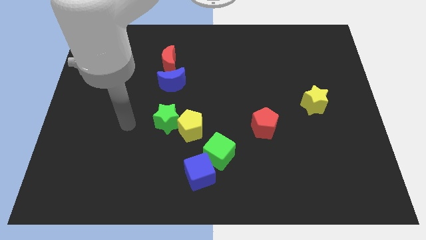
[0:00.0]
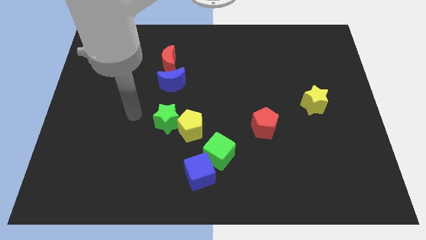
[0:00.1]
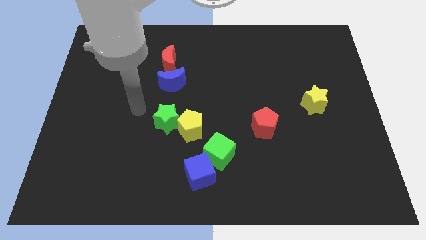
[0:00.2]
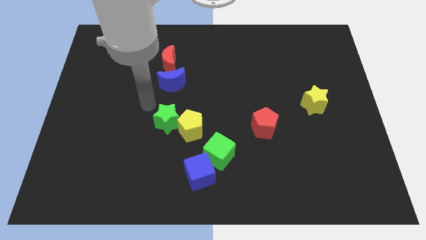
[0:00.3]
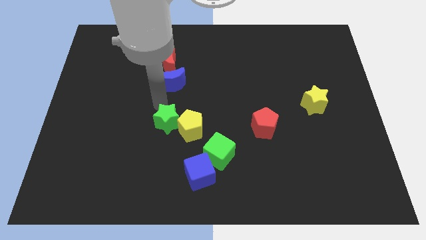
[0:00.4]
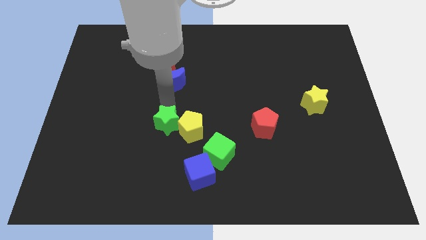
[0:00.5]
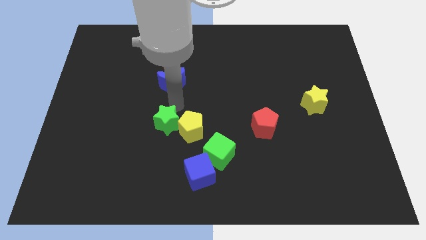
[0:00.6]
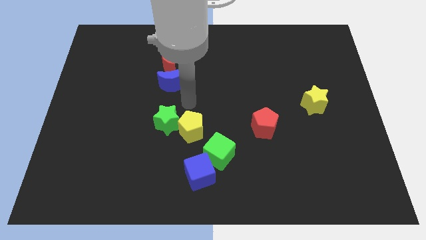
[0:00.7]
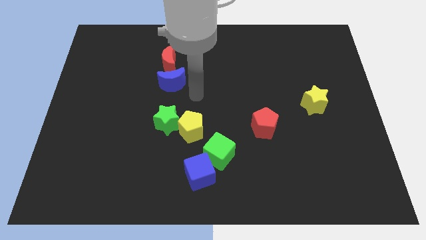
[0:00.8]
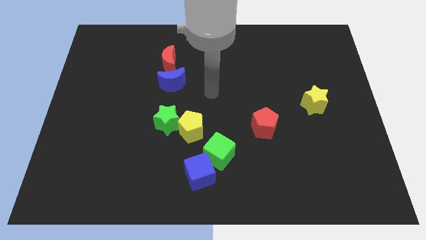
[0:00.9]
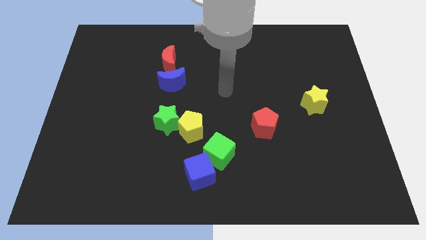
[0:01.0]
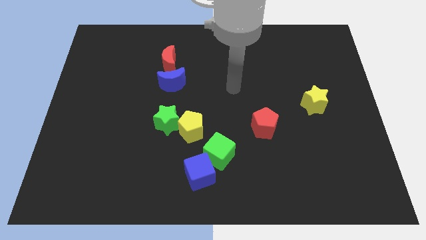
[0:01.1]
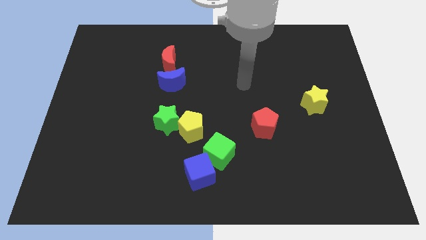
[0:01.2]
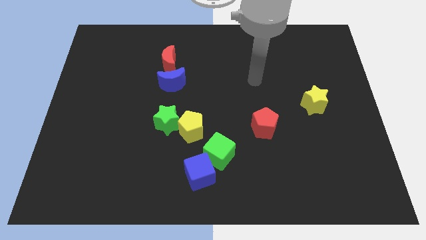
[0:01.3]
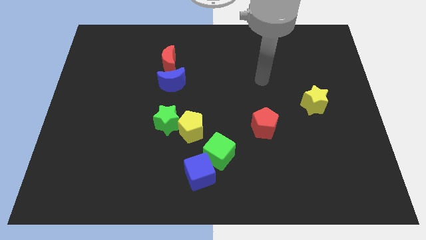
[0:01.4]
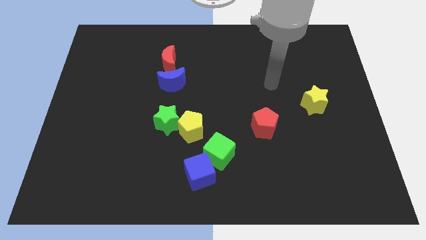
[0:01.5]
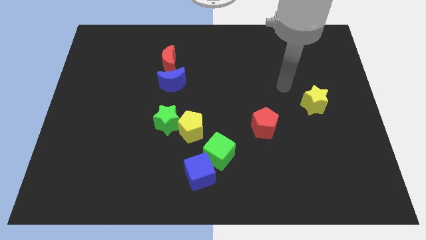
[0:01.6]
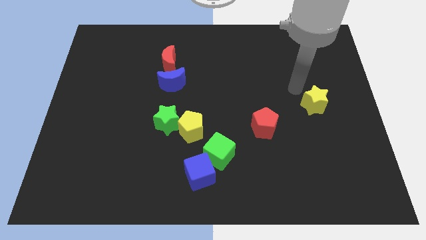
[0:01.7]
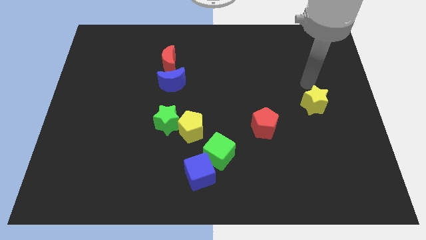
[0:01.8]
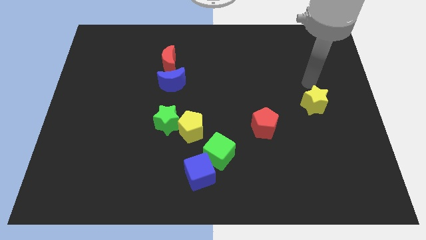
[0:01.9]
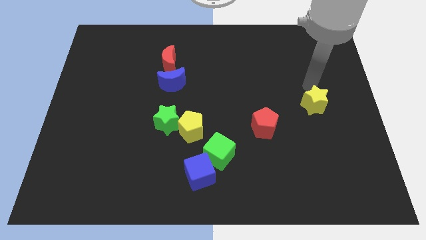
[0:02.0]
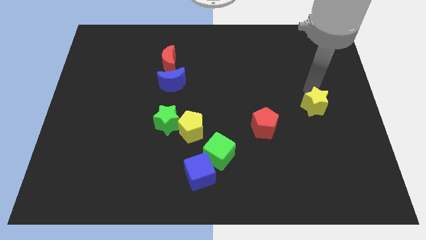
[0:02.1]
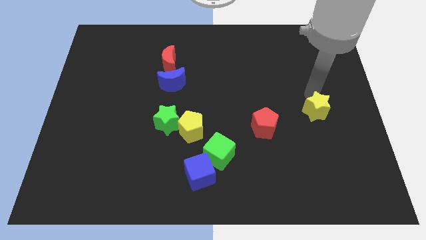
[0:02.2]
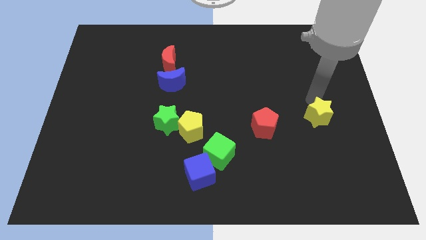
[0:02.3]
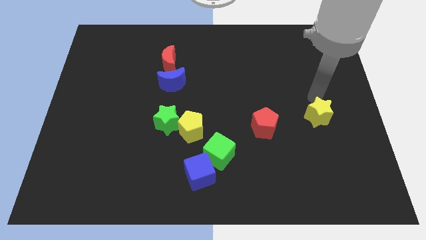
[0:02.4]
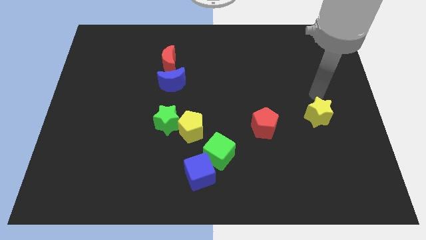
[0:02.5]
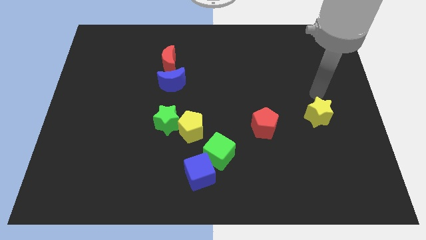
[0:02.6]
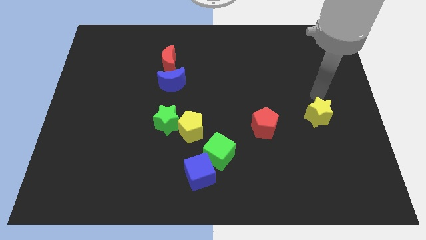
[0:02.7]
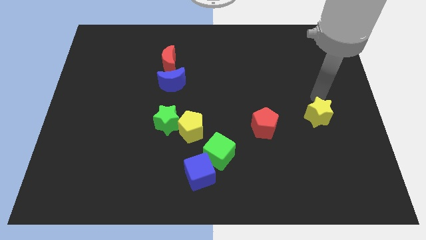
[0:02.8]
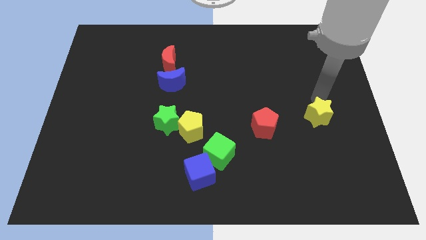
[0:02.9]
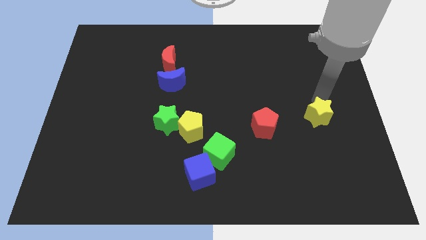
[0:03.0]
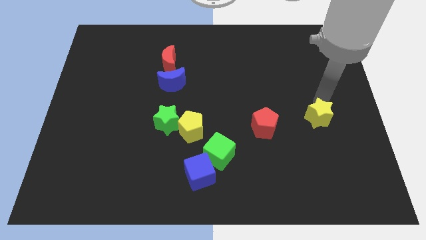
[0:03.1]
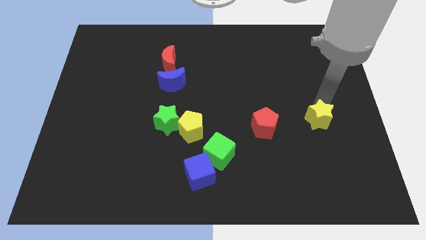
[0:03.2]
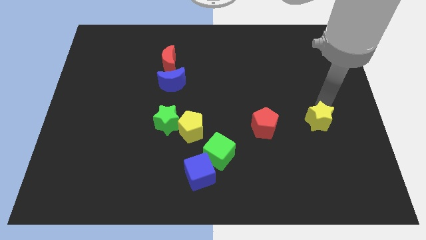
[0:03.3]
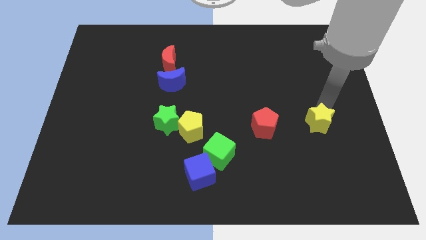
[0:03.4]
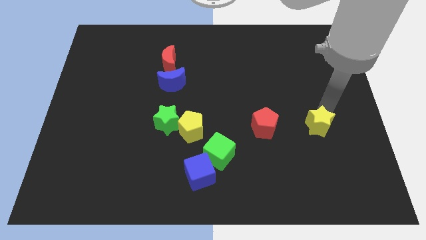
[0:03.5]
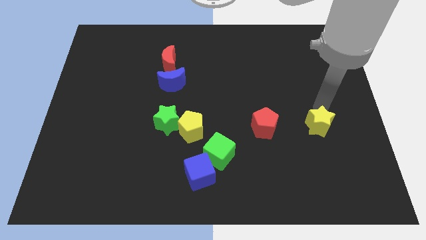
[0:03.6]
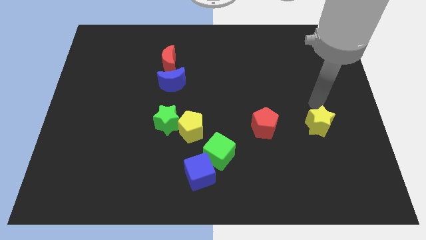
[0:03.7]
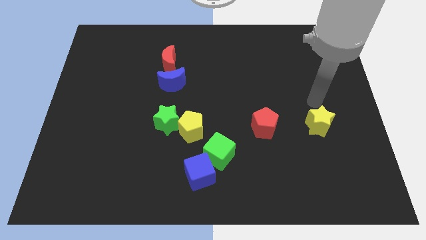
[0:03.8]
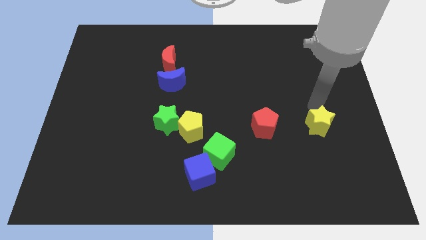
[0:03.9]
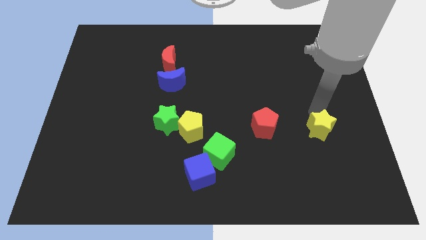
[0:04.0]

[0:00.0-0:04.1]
slide the yellow star a little bit downwards

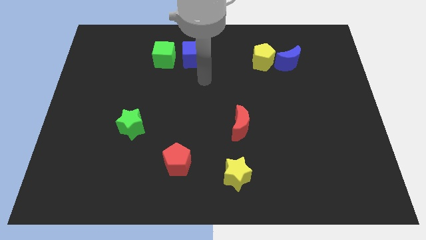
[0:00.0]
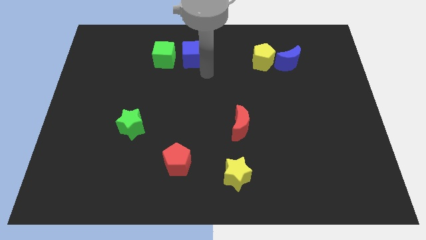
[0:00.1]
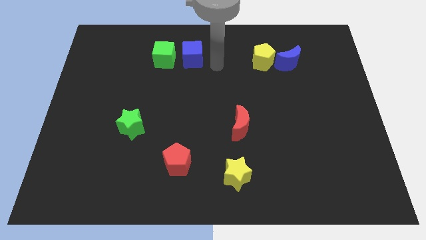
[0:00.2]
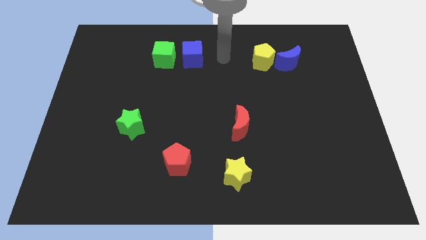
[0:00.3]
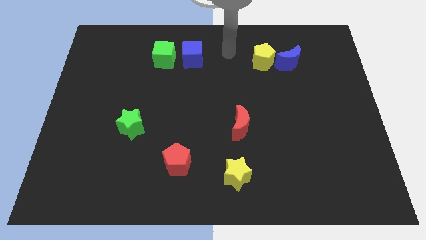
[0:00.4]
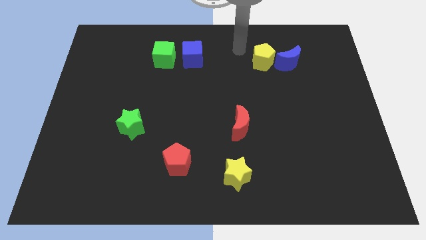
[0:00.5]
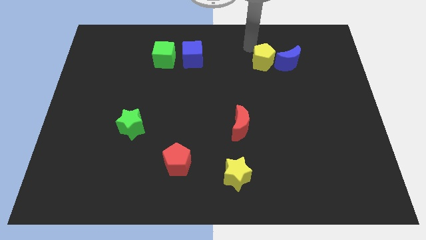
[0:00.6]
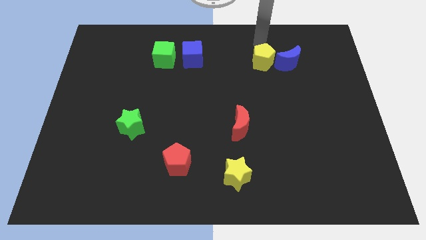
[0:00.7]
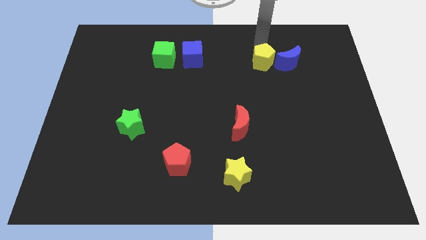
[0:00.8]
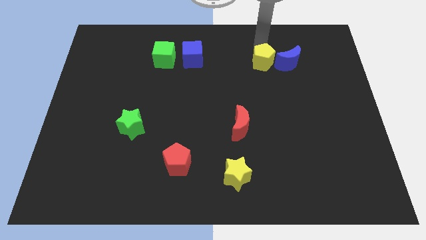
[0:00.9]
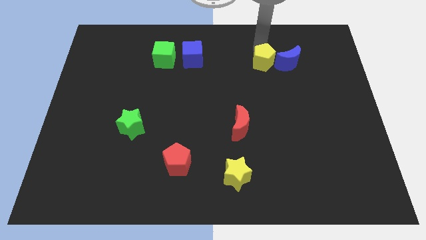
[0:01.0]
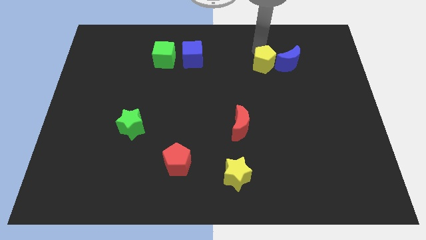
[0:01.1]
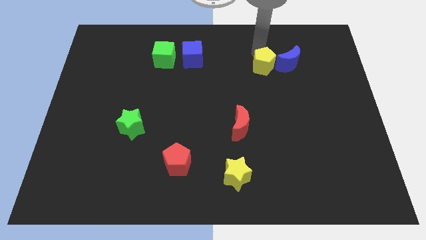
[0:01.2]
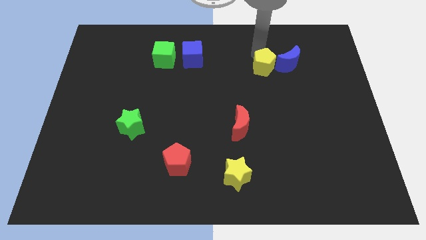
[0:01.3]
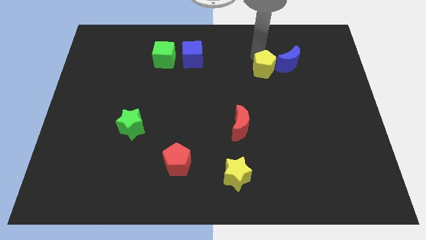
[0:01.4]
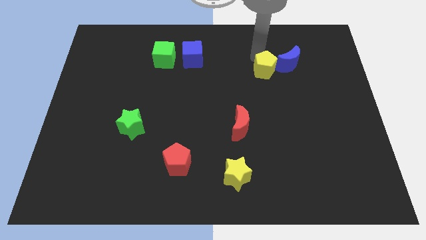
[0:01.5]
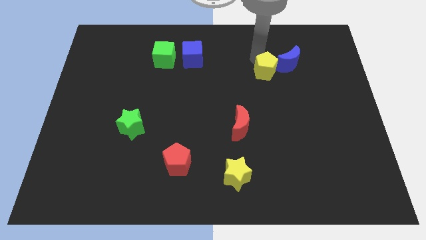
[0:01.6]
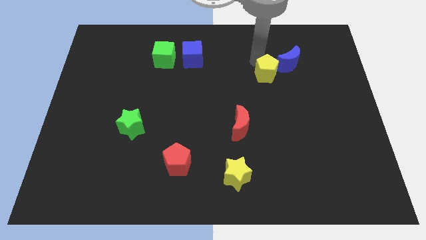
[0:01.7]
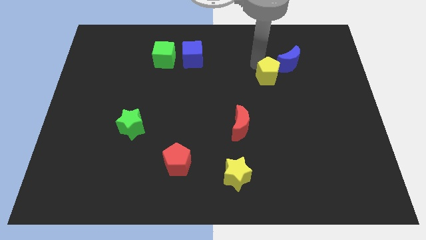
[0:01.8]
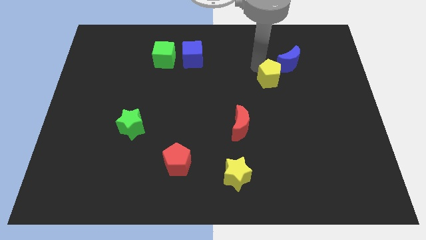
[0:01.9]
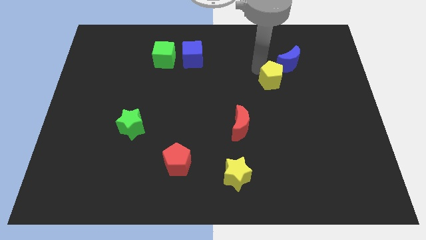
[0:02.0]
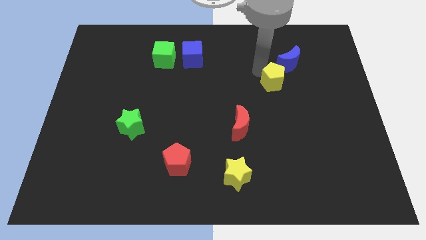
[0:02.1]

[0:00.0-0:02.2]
push the yellow pentagon somewhat downwards

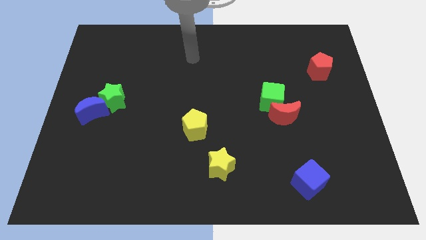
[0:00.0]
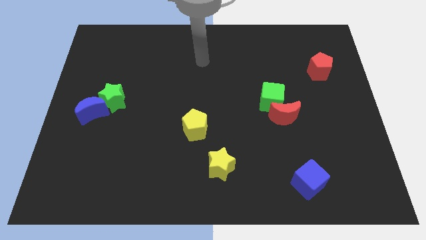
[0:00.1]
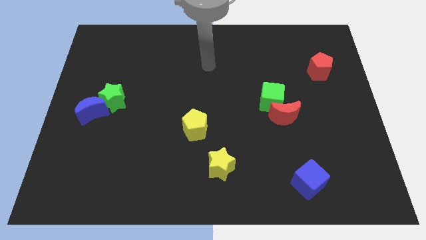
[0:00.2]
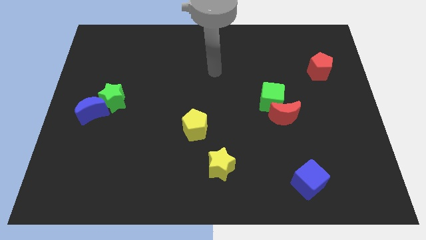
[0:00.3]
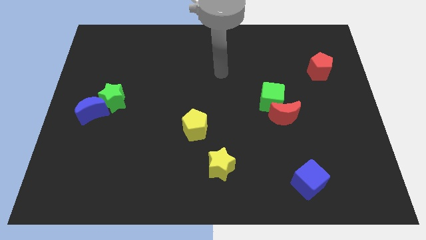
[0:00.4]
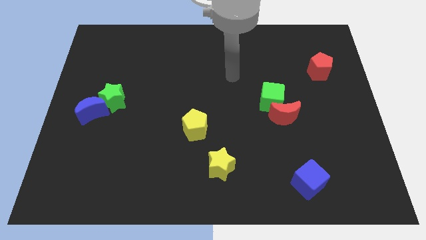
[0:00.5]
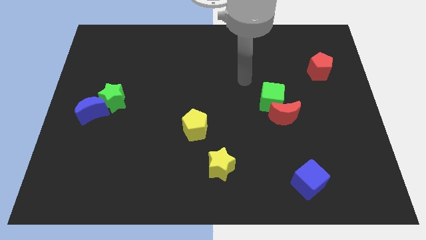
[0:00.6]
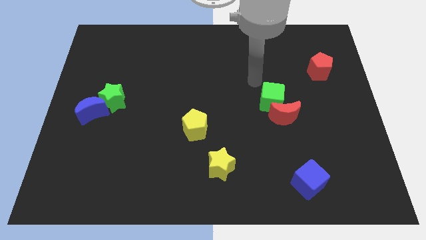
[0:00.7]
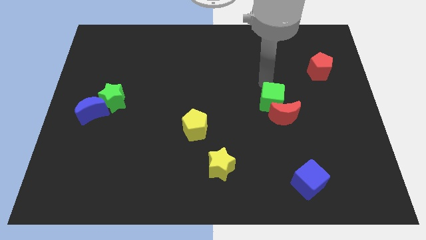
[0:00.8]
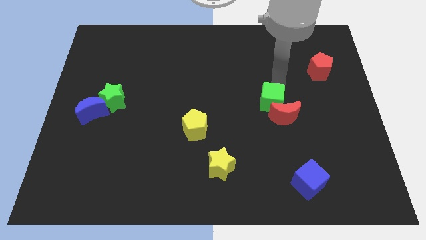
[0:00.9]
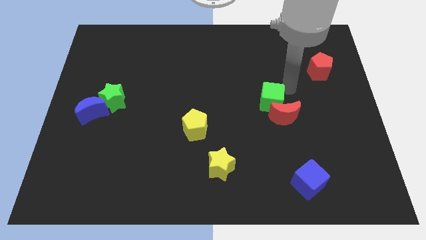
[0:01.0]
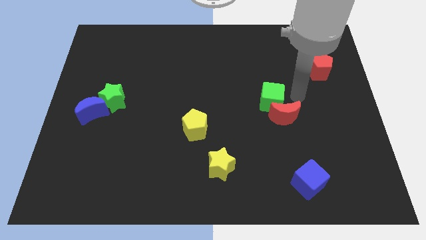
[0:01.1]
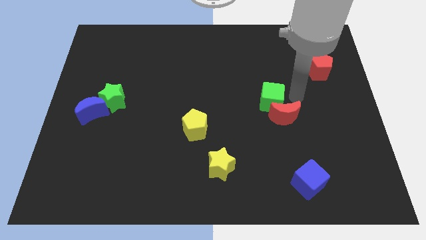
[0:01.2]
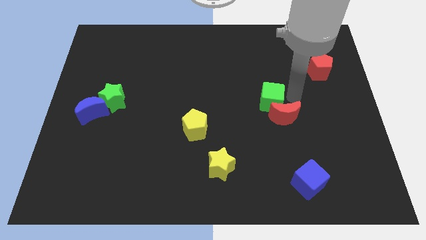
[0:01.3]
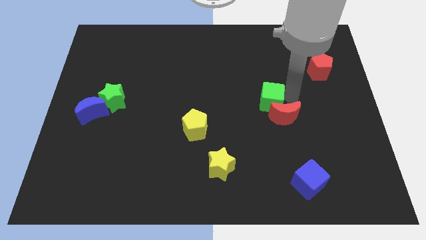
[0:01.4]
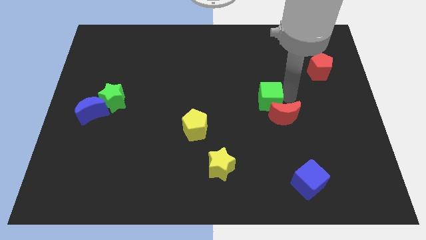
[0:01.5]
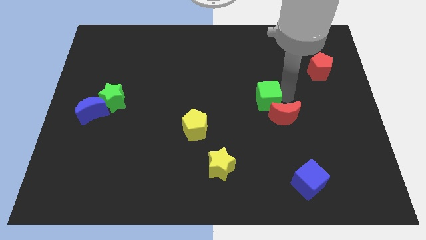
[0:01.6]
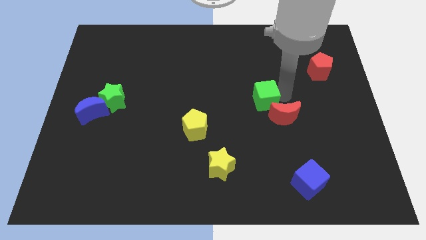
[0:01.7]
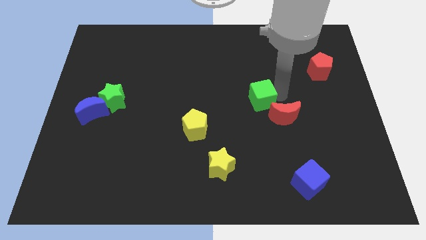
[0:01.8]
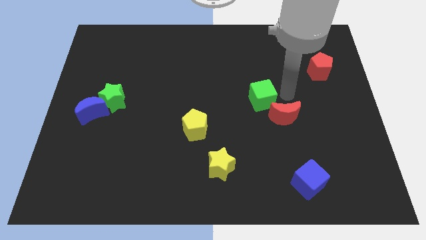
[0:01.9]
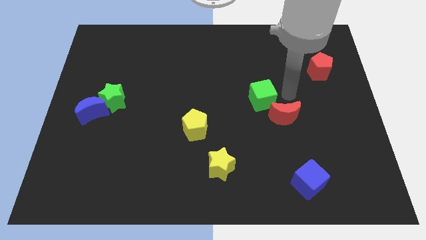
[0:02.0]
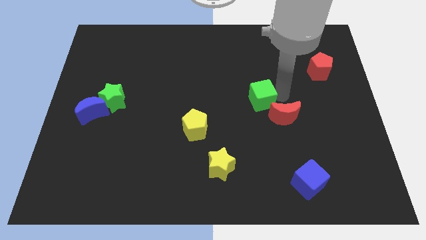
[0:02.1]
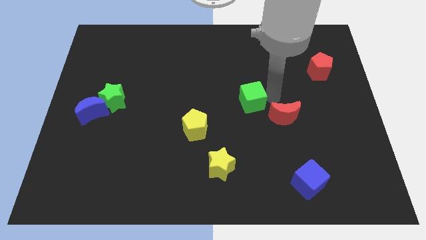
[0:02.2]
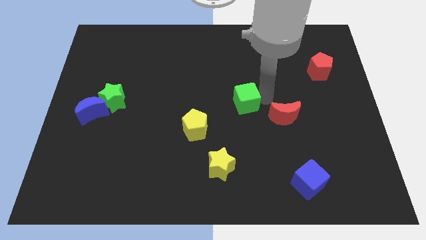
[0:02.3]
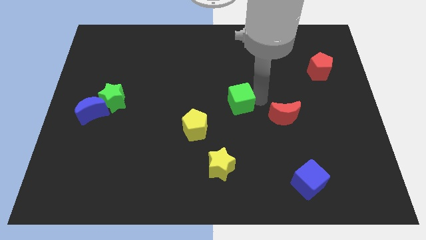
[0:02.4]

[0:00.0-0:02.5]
slide the green cube to the left slightly
